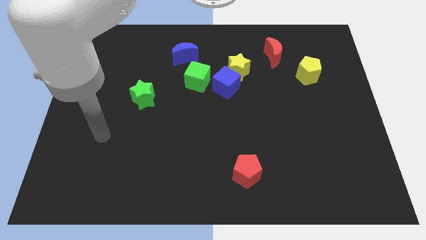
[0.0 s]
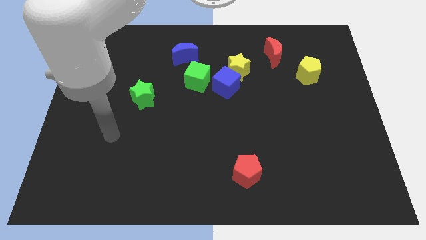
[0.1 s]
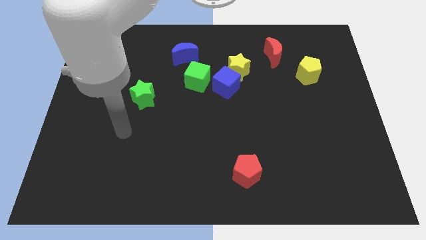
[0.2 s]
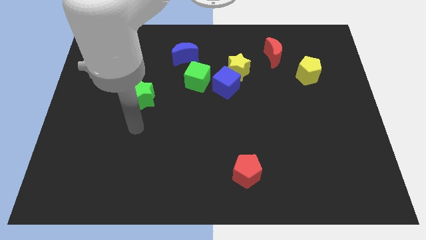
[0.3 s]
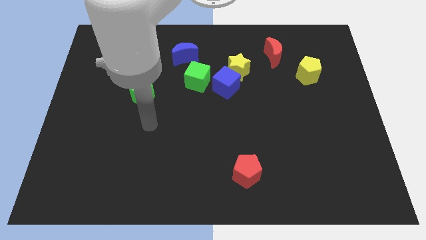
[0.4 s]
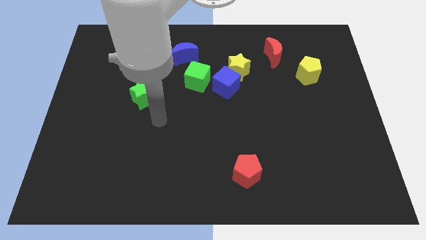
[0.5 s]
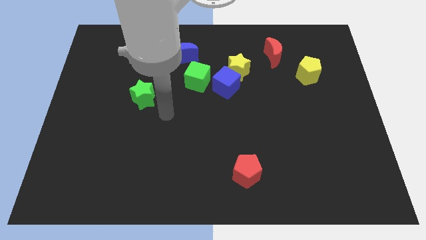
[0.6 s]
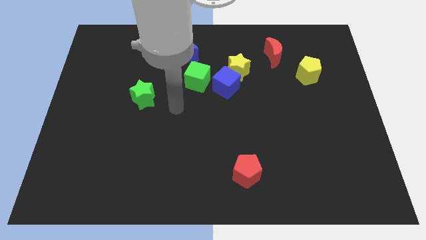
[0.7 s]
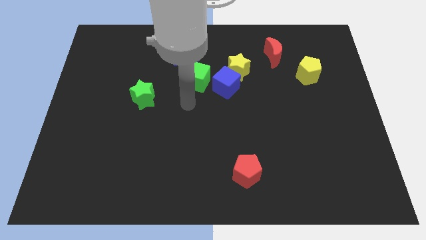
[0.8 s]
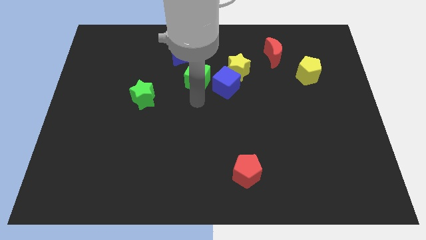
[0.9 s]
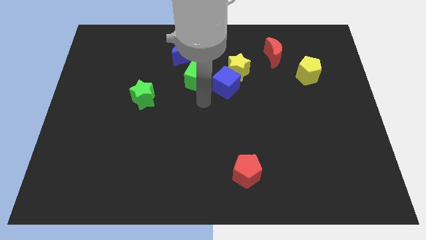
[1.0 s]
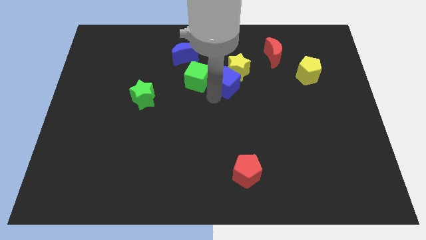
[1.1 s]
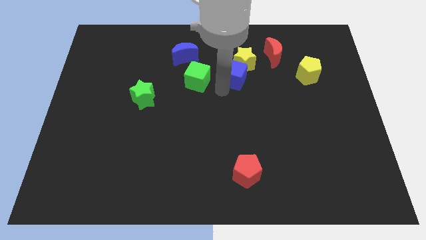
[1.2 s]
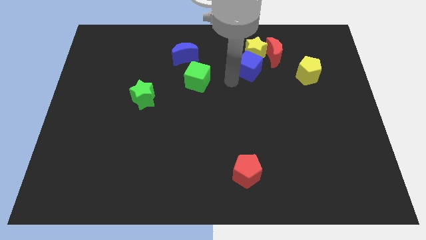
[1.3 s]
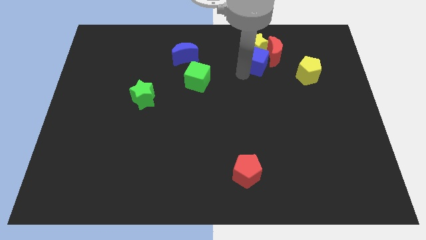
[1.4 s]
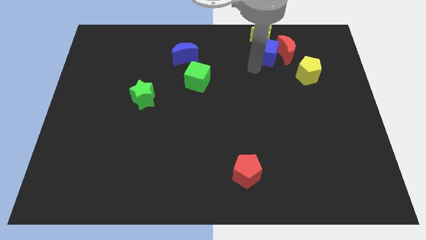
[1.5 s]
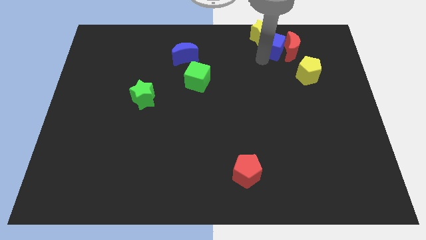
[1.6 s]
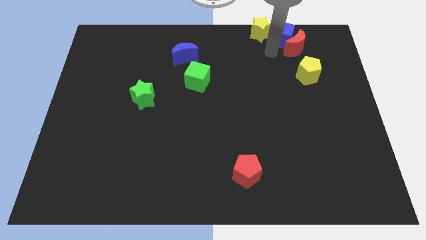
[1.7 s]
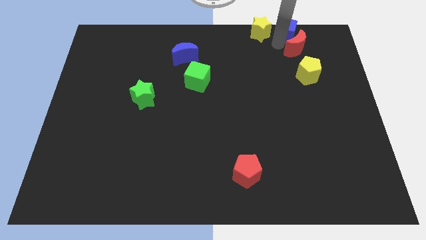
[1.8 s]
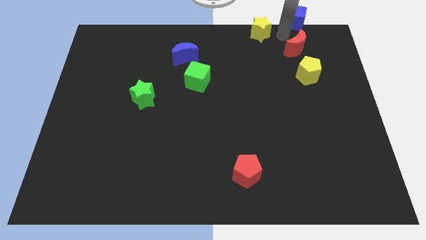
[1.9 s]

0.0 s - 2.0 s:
pull the yellow star apart from the blue cube

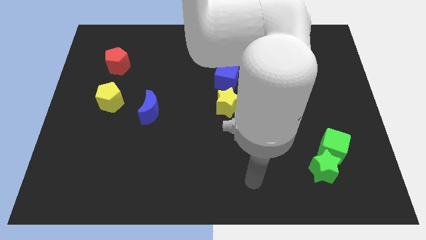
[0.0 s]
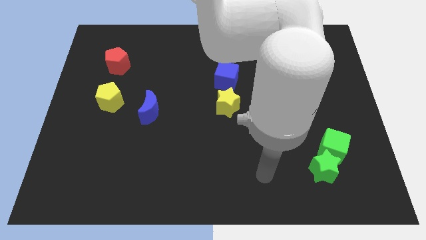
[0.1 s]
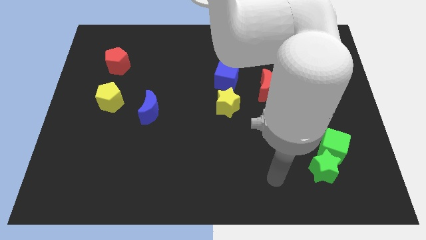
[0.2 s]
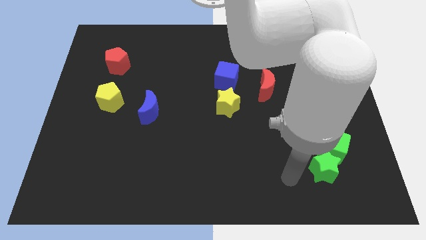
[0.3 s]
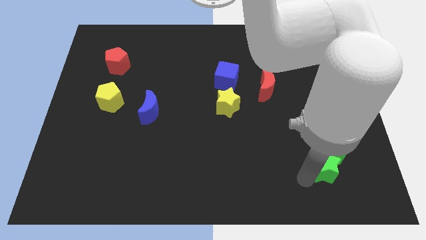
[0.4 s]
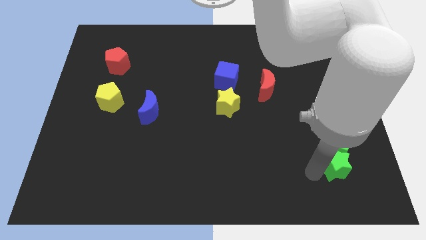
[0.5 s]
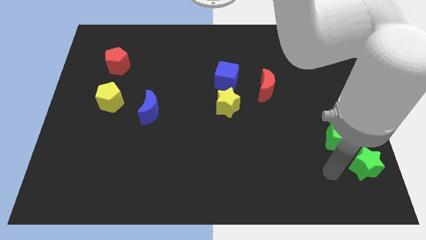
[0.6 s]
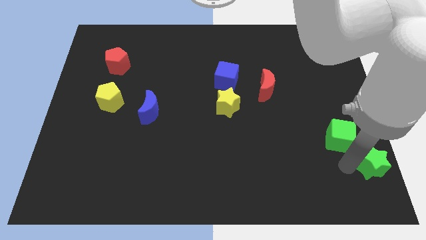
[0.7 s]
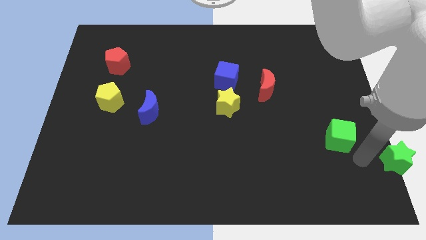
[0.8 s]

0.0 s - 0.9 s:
pull the green cube apart from the green star

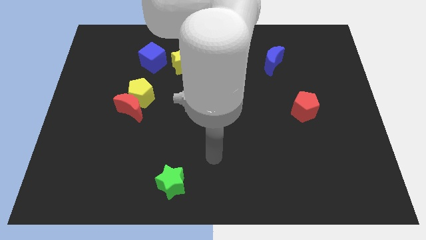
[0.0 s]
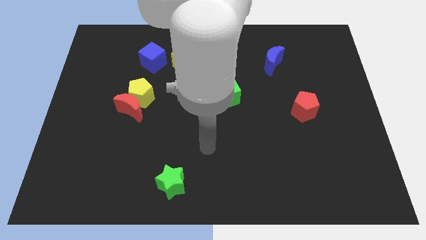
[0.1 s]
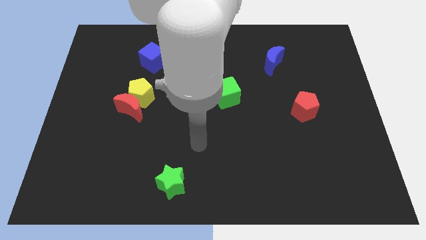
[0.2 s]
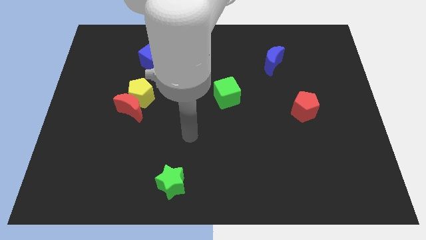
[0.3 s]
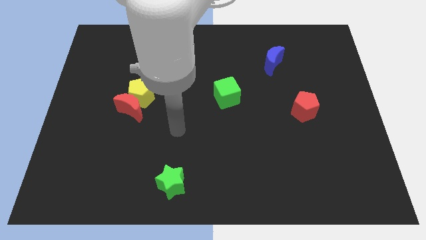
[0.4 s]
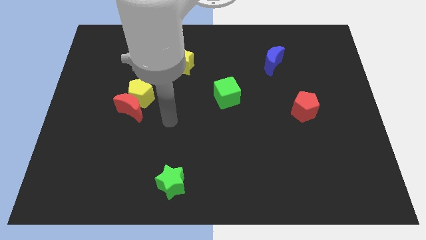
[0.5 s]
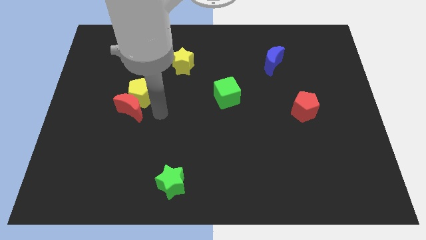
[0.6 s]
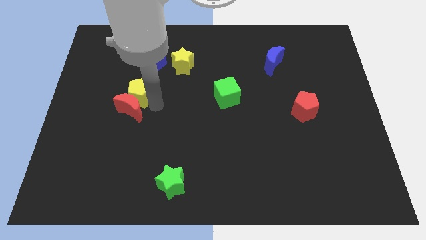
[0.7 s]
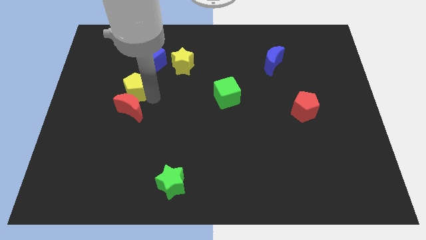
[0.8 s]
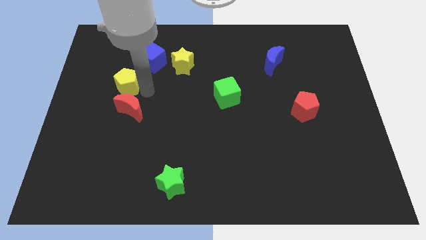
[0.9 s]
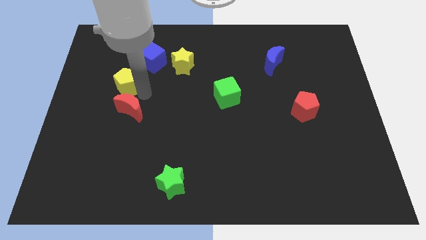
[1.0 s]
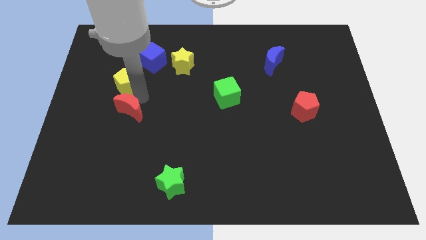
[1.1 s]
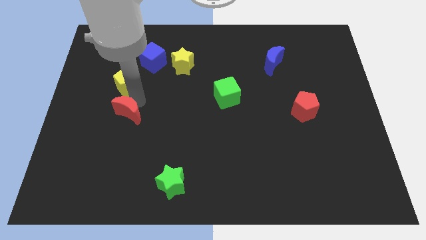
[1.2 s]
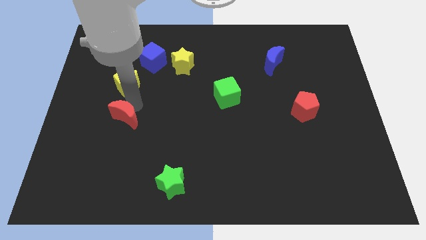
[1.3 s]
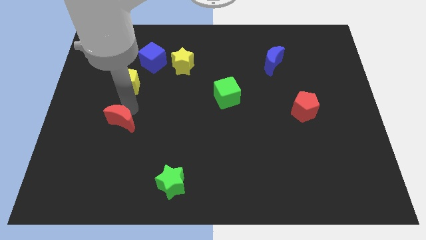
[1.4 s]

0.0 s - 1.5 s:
move the red moon away from the yellow pentagon

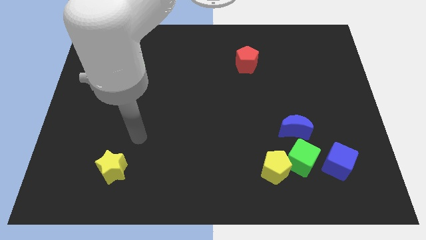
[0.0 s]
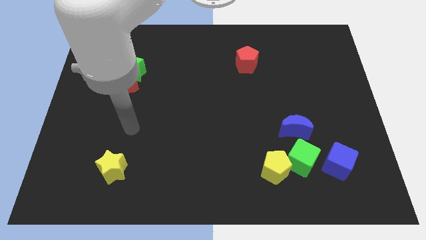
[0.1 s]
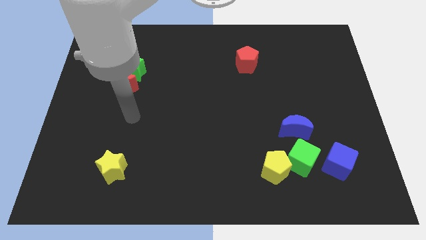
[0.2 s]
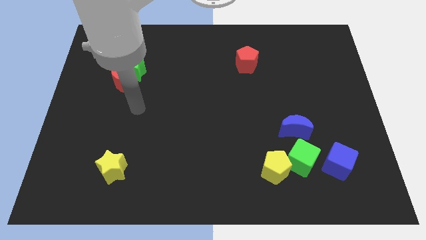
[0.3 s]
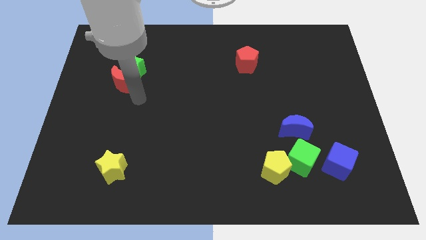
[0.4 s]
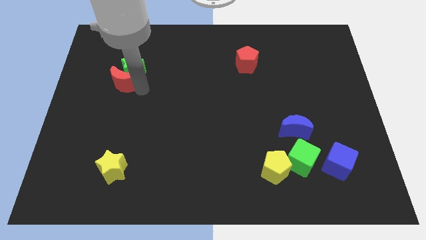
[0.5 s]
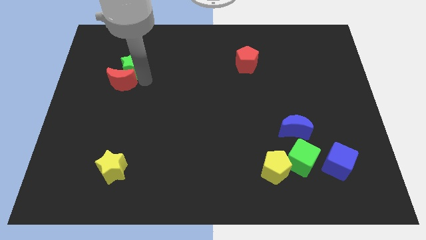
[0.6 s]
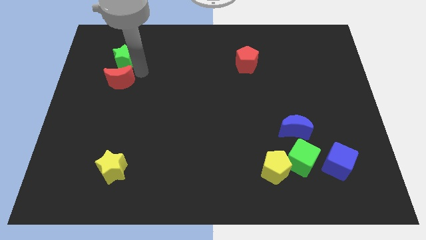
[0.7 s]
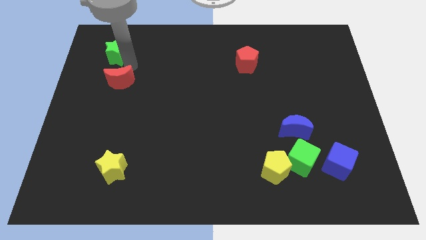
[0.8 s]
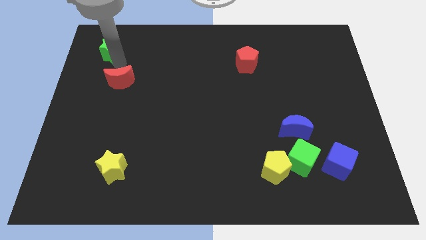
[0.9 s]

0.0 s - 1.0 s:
separate the red moon from the green star

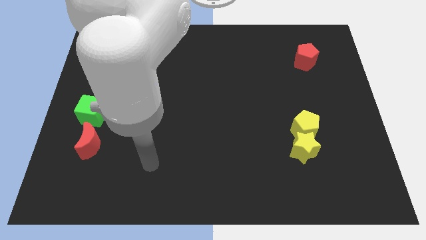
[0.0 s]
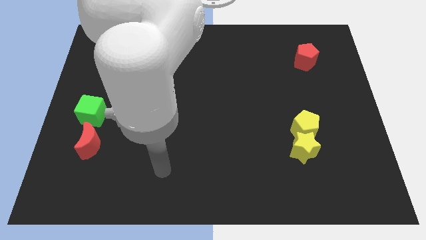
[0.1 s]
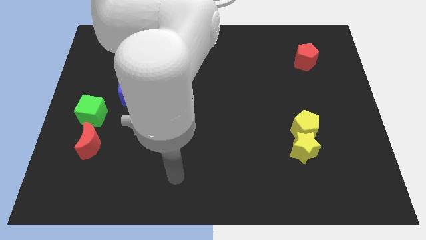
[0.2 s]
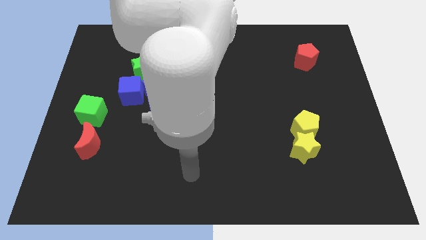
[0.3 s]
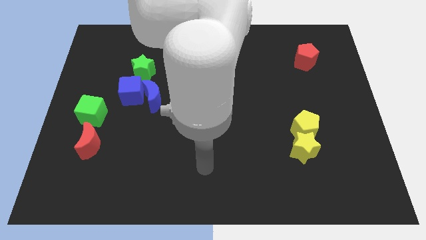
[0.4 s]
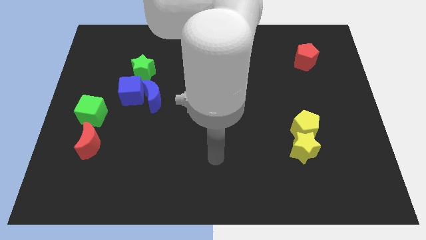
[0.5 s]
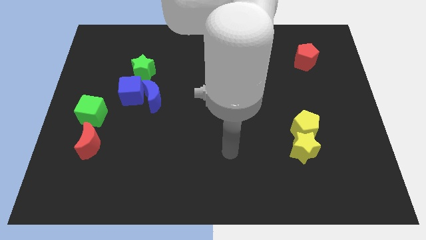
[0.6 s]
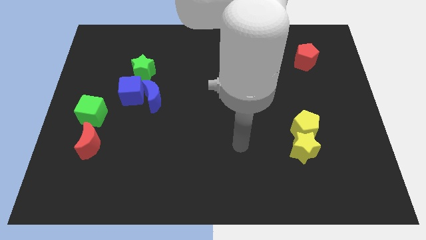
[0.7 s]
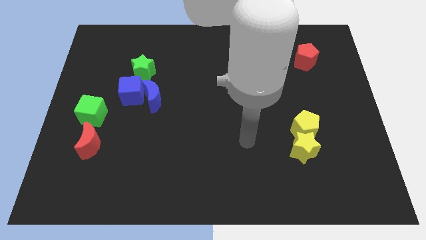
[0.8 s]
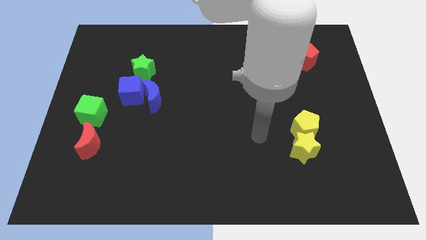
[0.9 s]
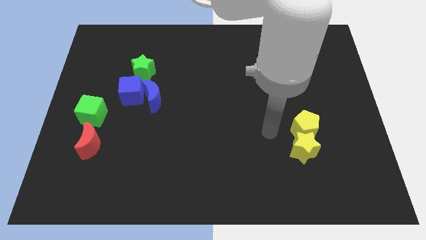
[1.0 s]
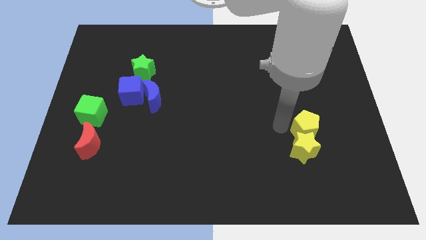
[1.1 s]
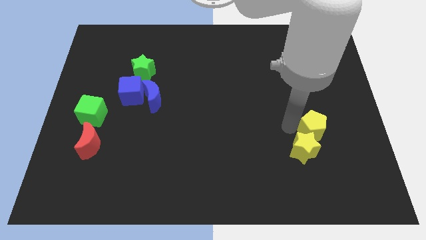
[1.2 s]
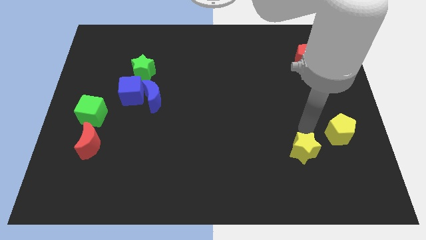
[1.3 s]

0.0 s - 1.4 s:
pull the yellow star apart from the yellow pentagon

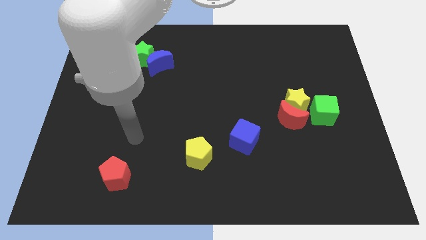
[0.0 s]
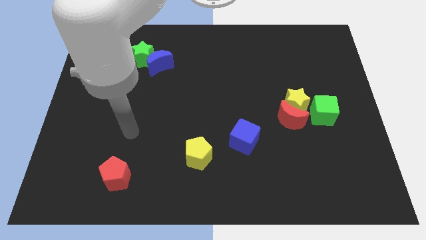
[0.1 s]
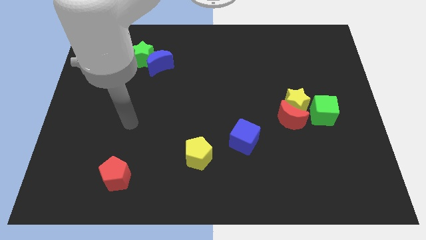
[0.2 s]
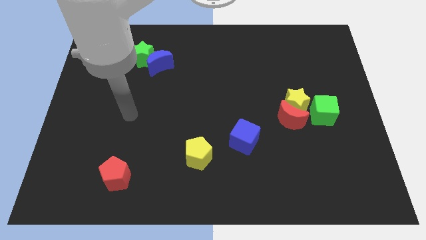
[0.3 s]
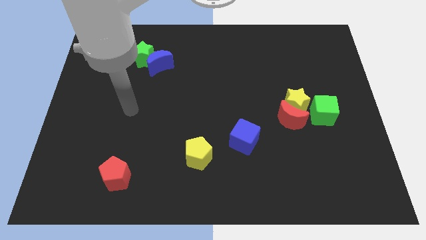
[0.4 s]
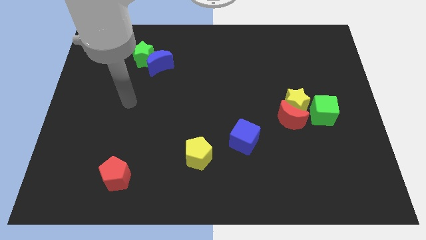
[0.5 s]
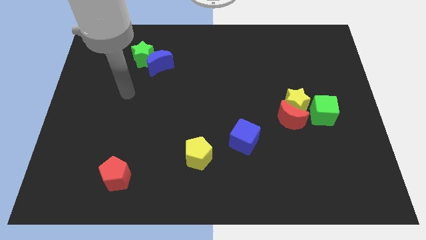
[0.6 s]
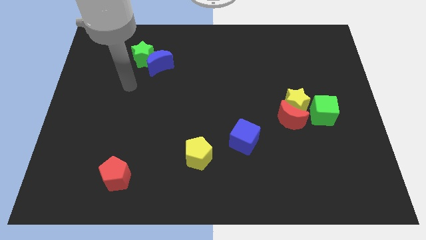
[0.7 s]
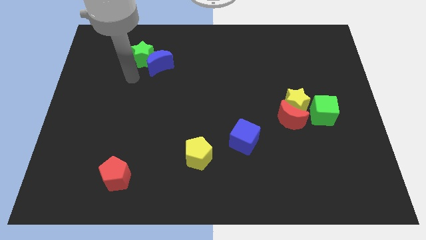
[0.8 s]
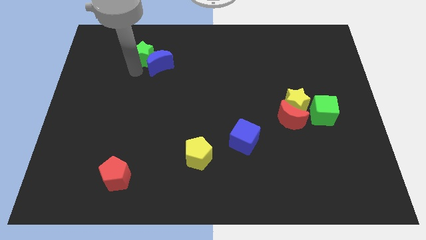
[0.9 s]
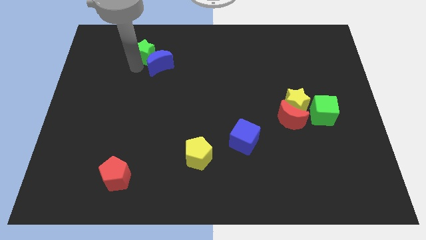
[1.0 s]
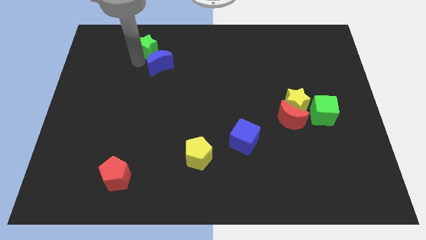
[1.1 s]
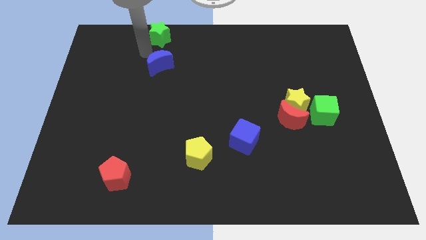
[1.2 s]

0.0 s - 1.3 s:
move the blue moon away from the green star

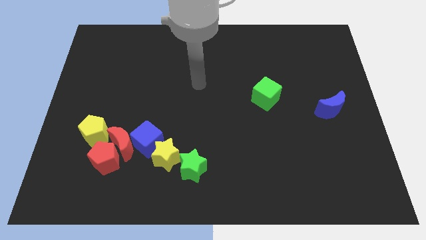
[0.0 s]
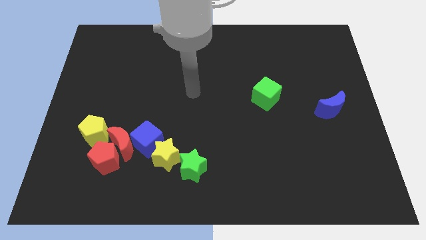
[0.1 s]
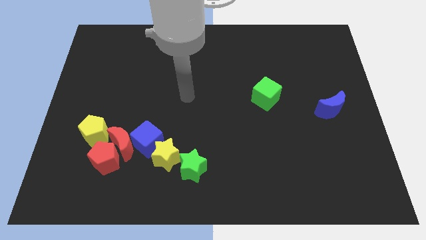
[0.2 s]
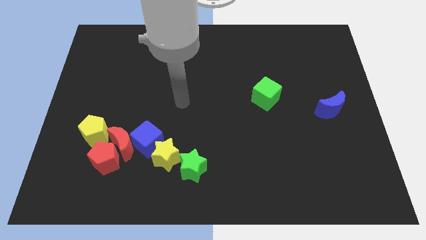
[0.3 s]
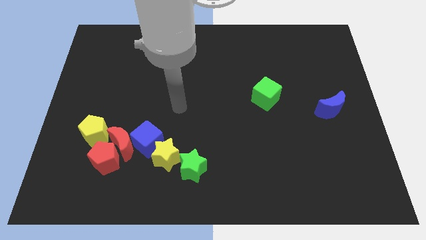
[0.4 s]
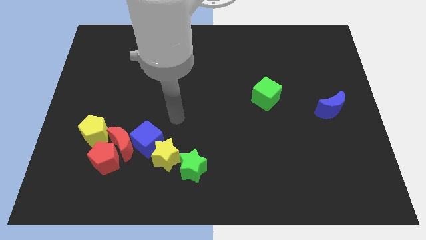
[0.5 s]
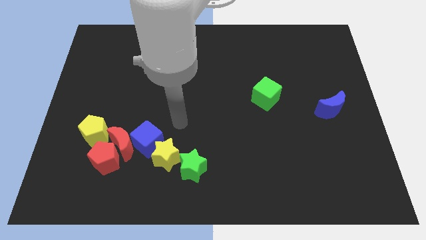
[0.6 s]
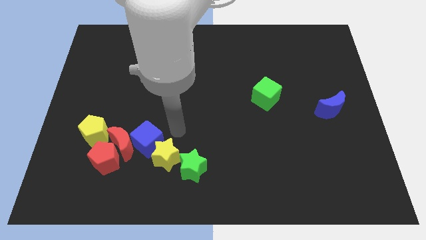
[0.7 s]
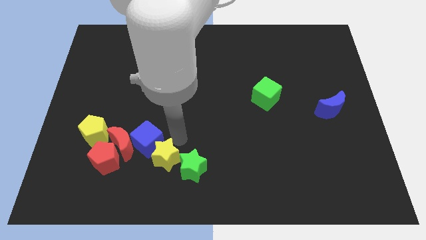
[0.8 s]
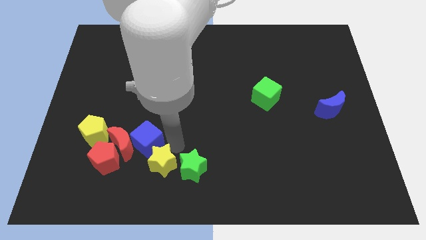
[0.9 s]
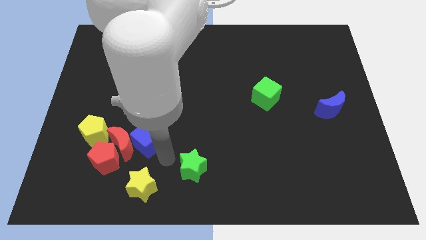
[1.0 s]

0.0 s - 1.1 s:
separate the green star from the yellow star

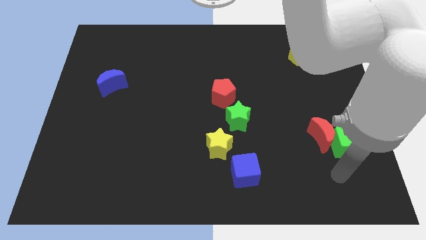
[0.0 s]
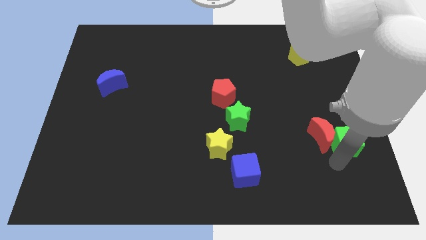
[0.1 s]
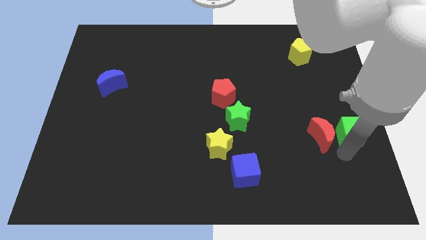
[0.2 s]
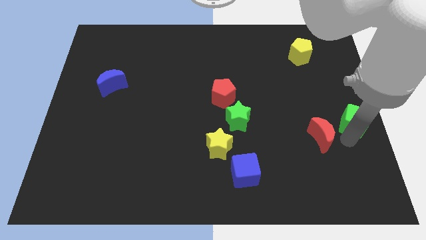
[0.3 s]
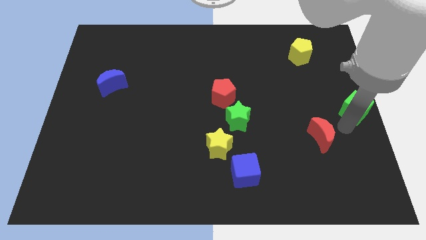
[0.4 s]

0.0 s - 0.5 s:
separate the red moon from the green cube
